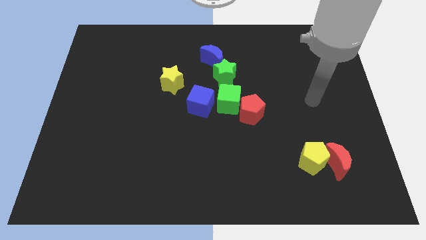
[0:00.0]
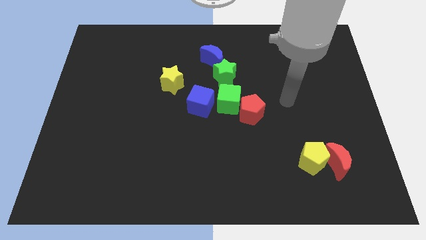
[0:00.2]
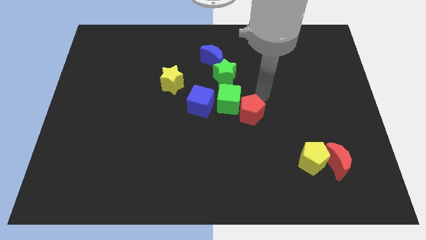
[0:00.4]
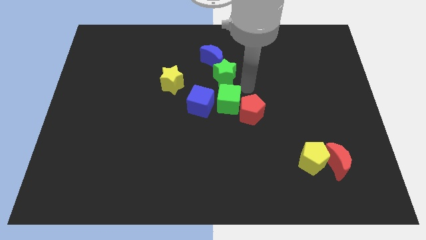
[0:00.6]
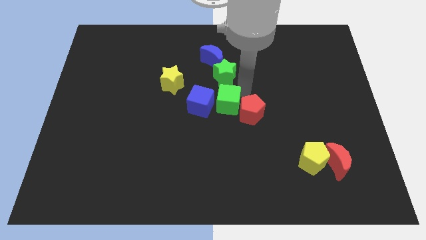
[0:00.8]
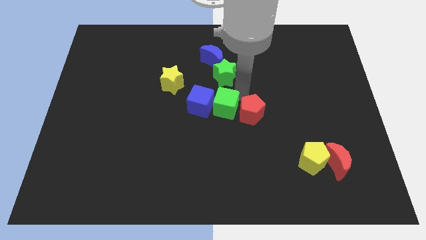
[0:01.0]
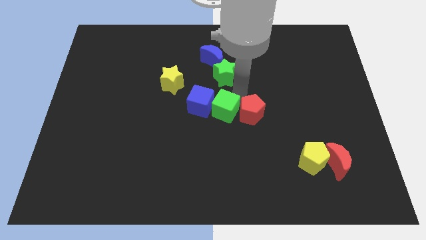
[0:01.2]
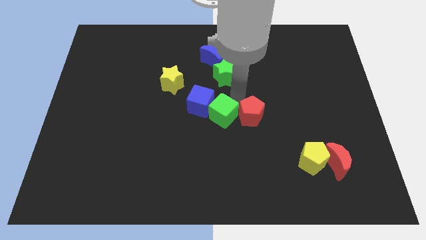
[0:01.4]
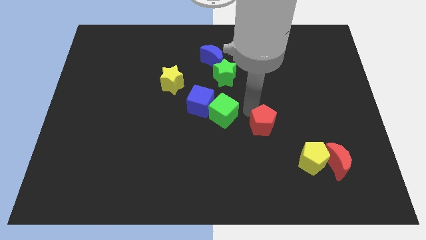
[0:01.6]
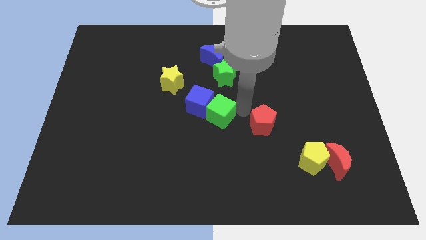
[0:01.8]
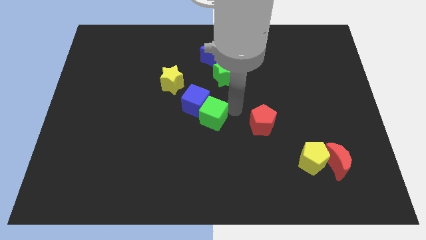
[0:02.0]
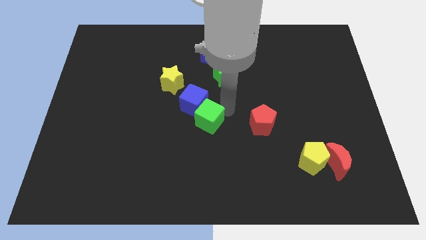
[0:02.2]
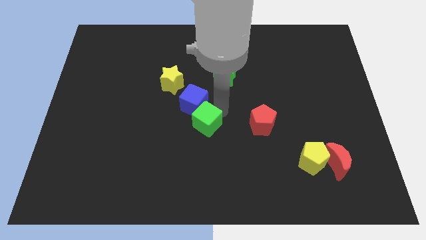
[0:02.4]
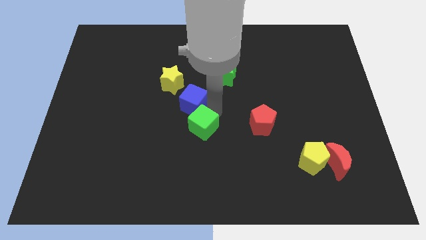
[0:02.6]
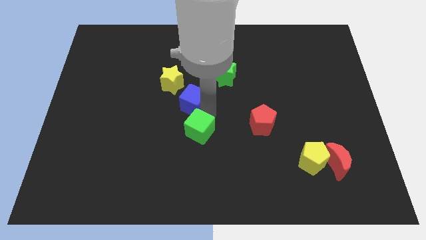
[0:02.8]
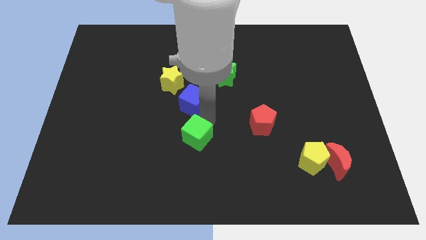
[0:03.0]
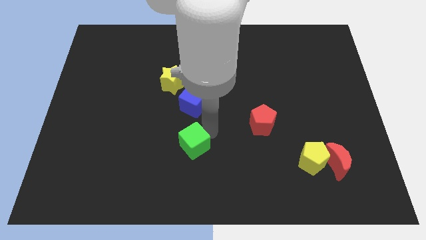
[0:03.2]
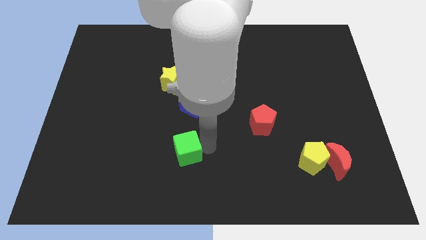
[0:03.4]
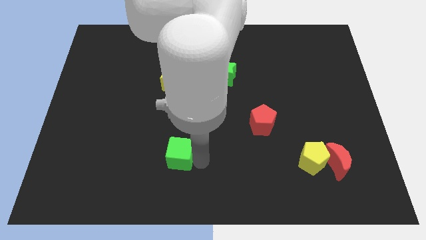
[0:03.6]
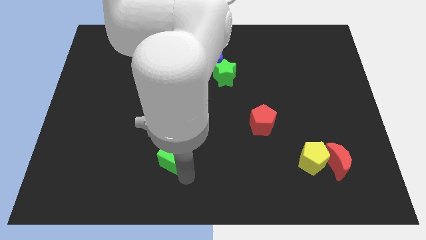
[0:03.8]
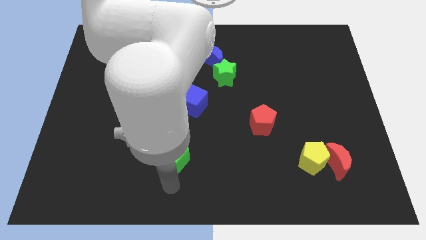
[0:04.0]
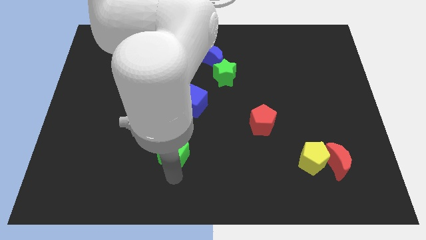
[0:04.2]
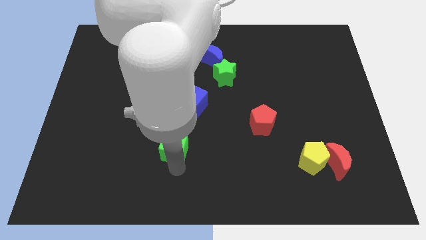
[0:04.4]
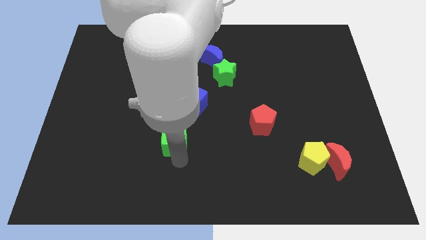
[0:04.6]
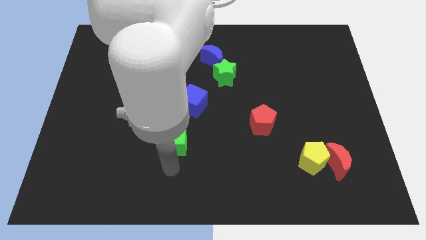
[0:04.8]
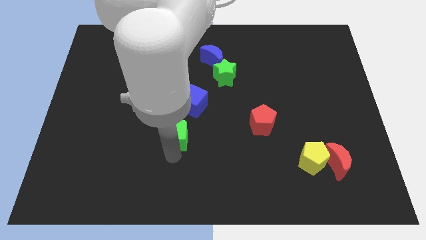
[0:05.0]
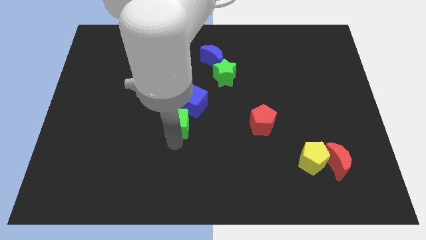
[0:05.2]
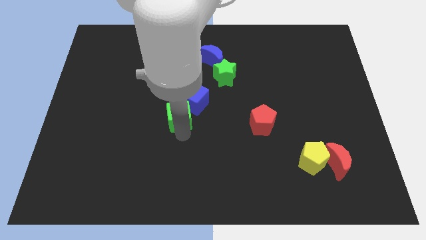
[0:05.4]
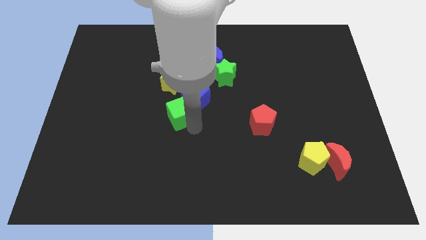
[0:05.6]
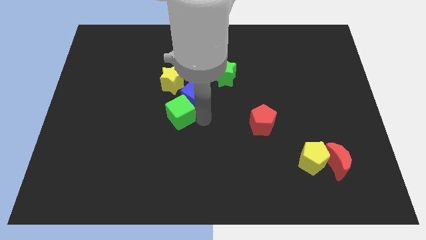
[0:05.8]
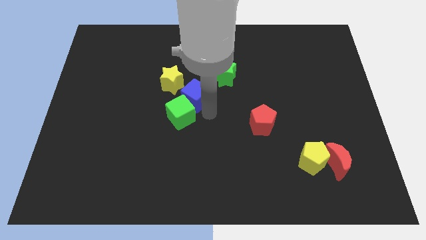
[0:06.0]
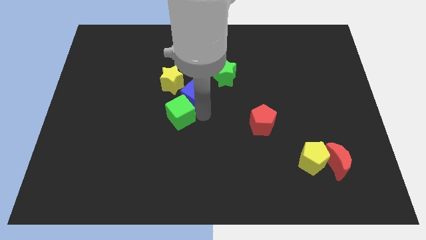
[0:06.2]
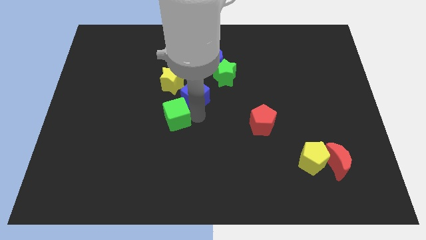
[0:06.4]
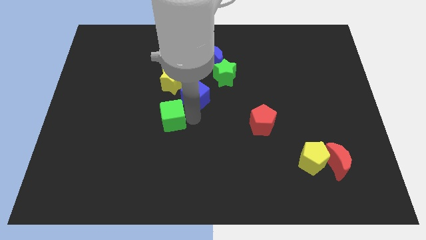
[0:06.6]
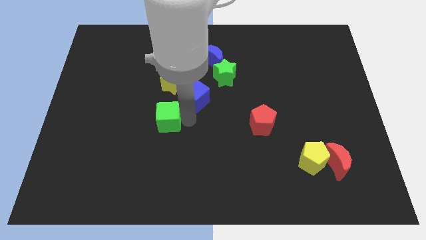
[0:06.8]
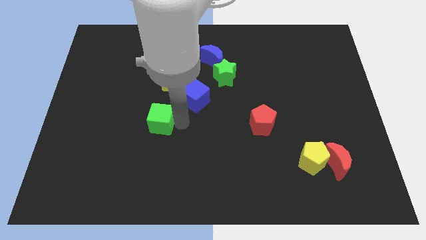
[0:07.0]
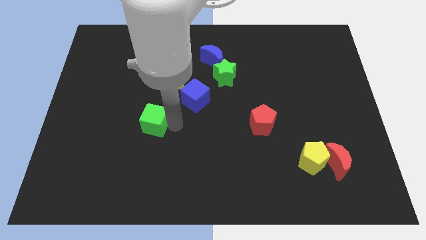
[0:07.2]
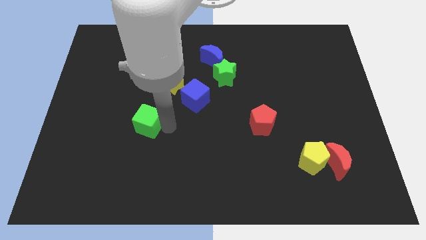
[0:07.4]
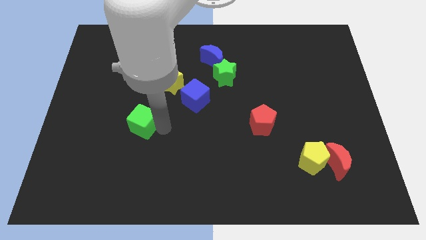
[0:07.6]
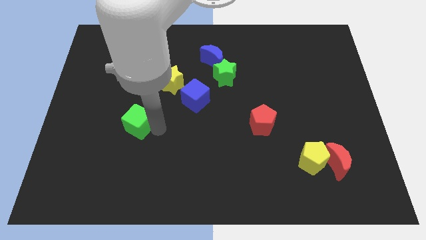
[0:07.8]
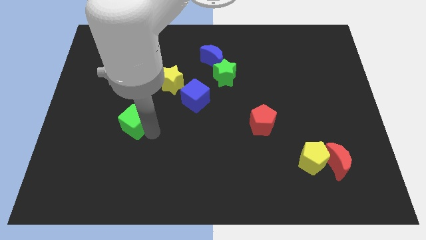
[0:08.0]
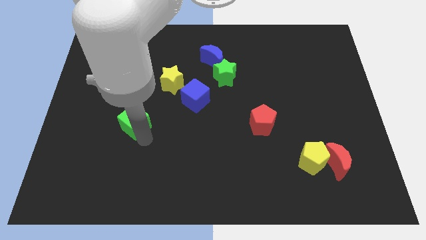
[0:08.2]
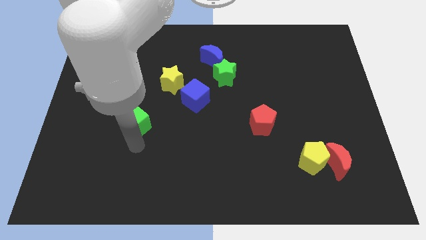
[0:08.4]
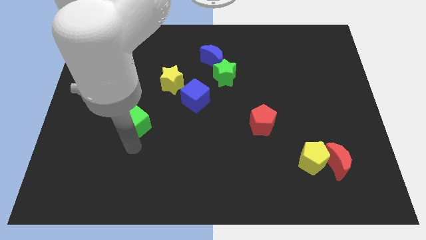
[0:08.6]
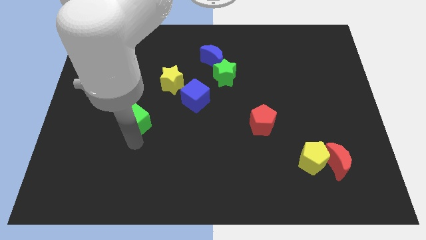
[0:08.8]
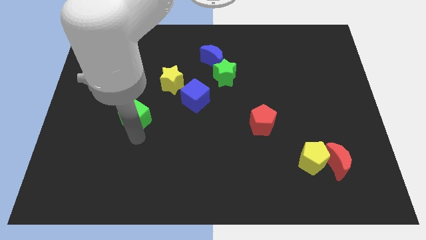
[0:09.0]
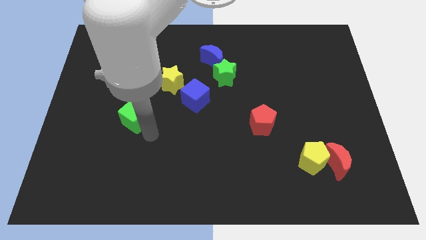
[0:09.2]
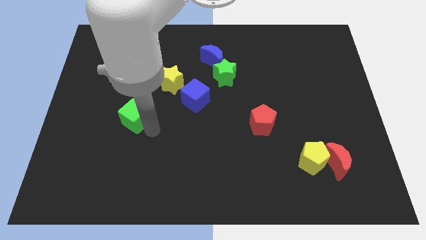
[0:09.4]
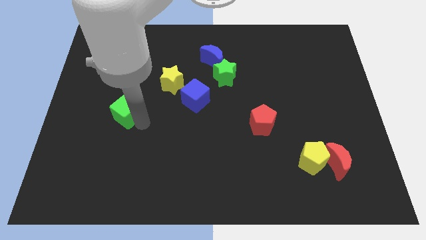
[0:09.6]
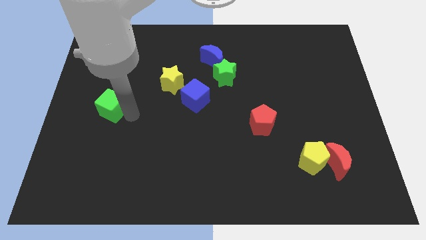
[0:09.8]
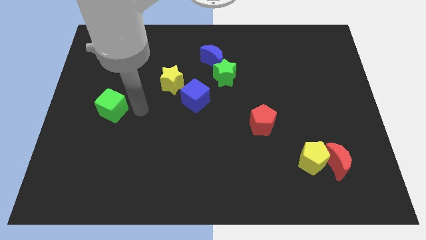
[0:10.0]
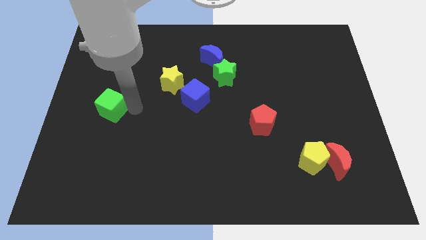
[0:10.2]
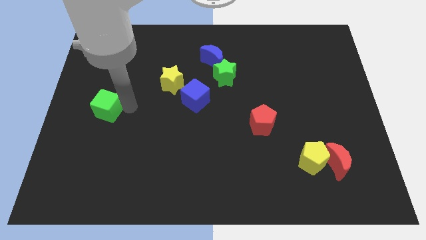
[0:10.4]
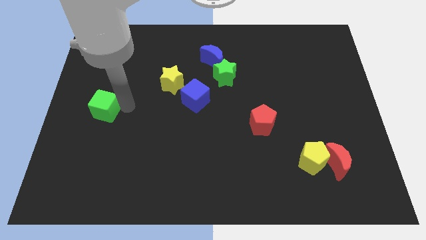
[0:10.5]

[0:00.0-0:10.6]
move the green cube to the left side

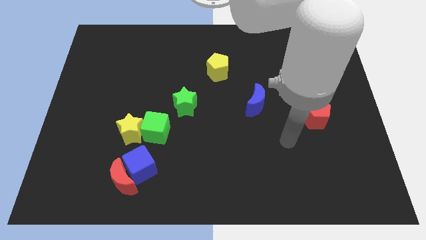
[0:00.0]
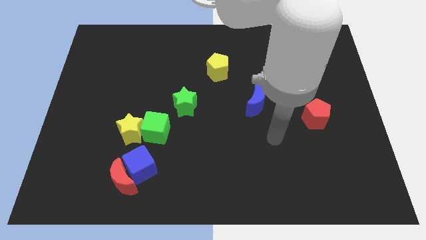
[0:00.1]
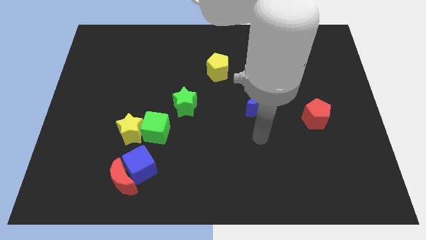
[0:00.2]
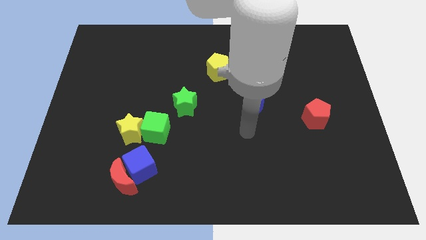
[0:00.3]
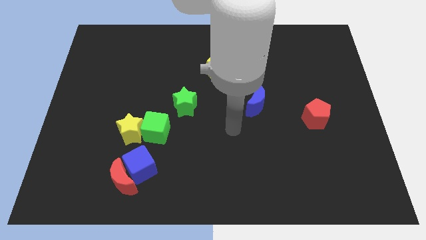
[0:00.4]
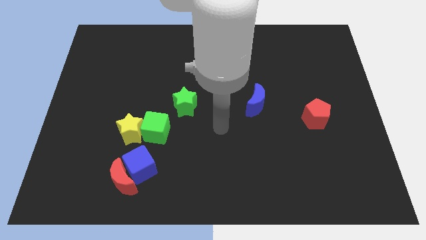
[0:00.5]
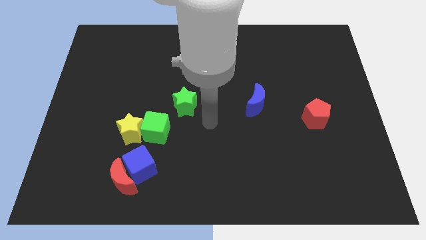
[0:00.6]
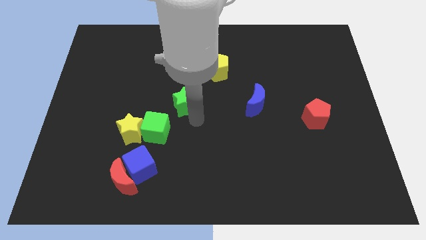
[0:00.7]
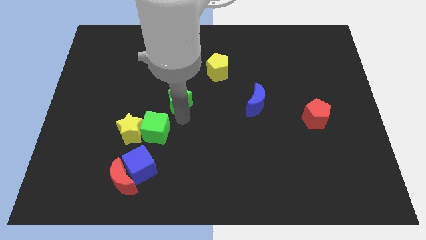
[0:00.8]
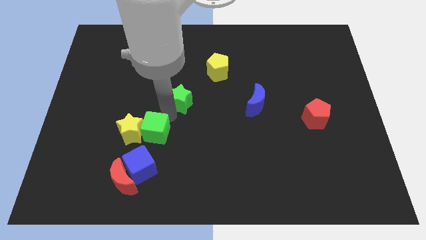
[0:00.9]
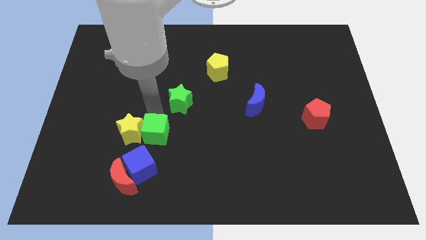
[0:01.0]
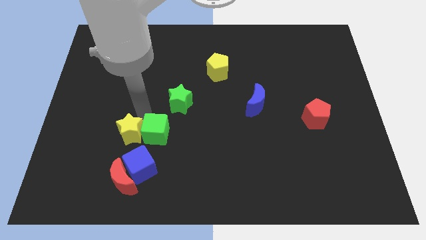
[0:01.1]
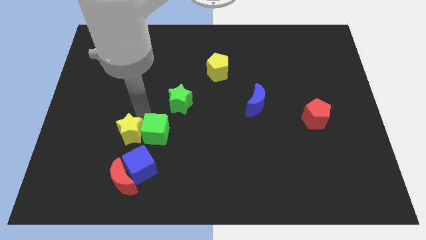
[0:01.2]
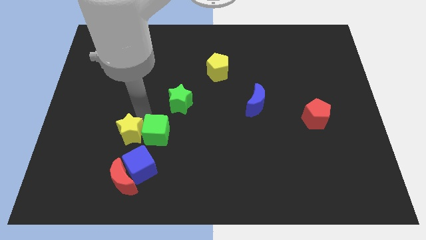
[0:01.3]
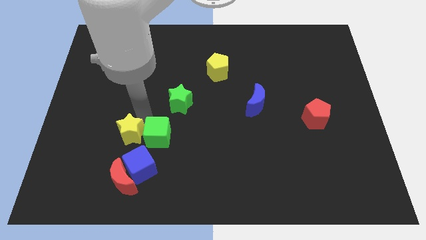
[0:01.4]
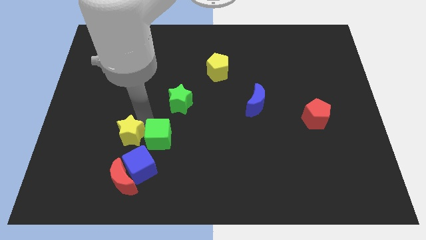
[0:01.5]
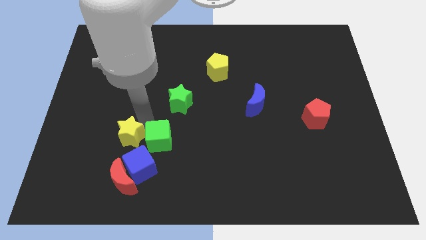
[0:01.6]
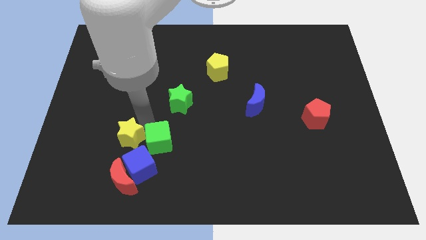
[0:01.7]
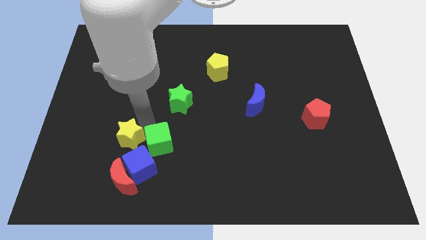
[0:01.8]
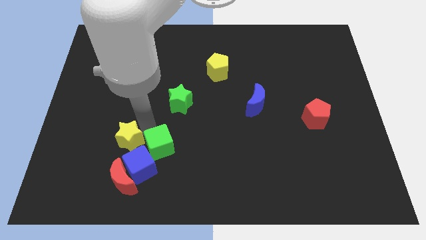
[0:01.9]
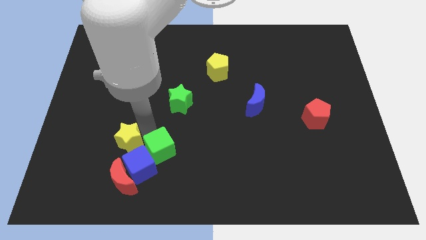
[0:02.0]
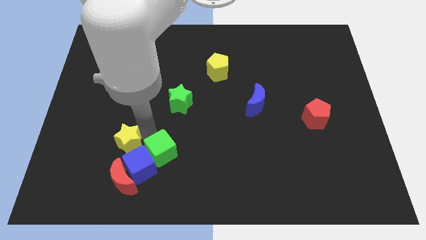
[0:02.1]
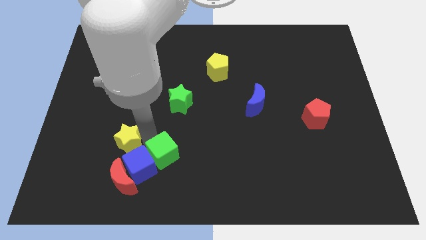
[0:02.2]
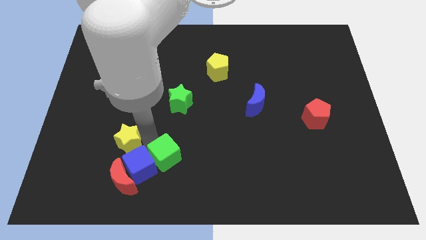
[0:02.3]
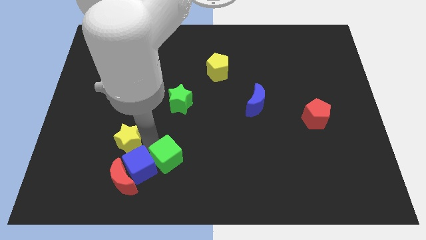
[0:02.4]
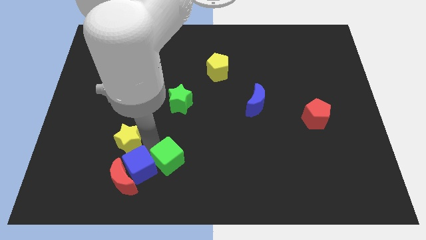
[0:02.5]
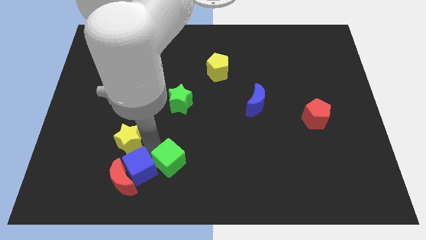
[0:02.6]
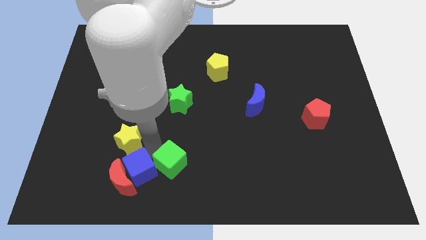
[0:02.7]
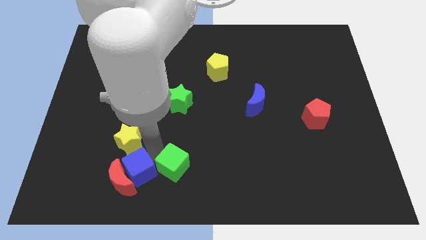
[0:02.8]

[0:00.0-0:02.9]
put the green cube to the bottom side
